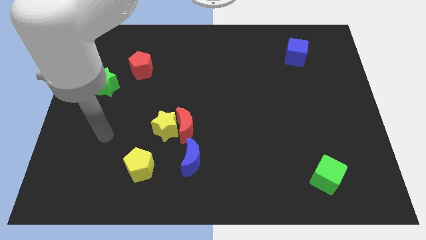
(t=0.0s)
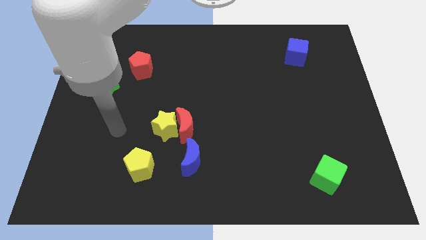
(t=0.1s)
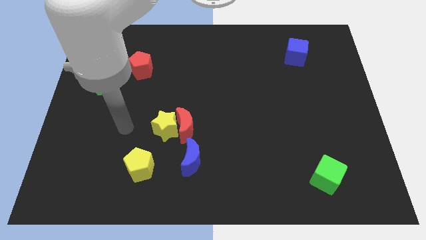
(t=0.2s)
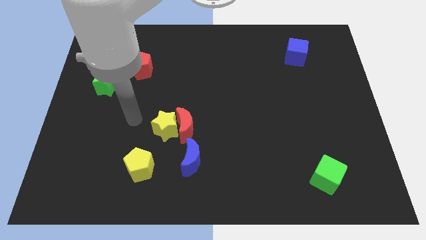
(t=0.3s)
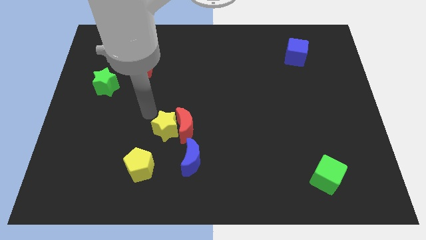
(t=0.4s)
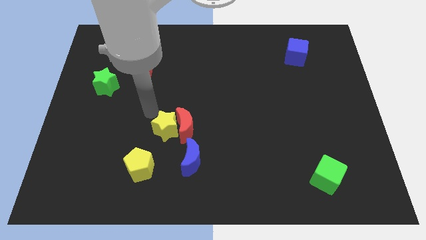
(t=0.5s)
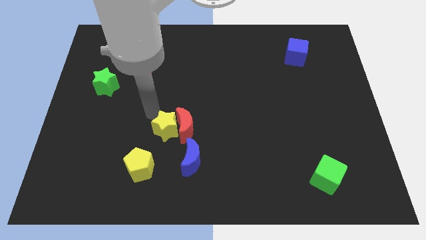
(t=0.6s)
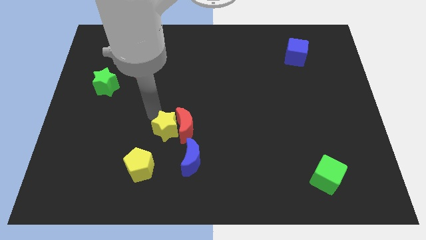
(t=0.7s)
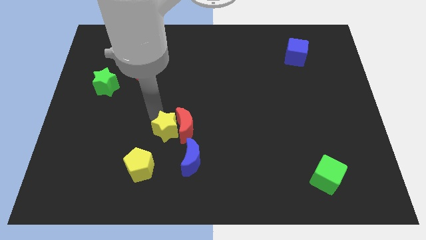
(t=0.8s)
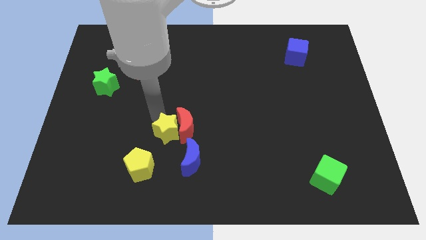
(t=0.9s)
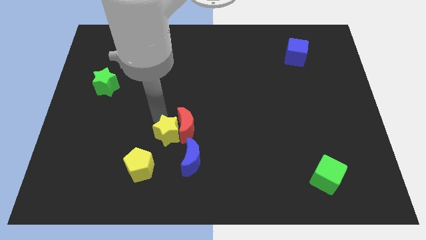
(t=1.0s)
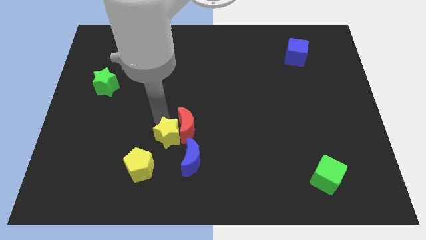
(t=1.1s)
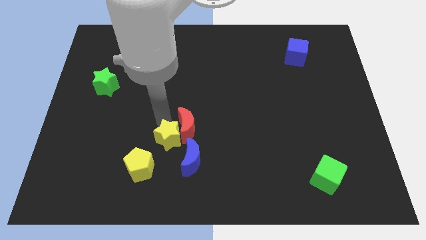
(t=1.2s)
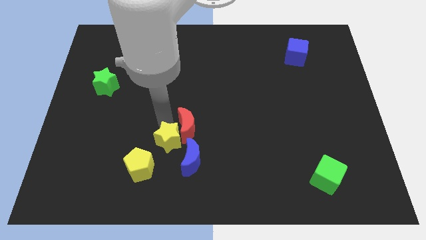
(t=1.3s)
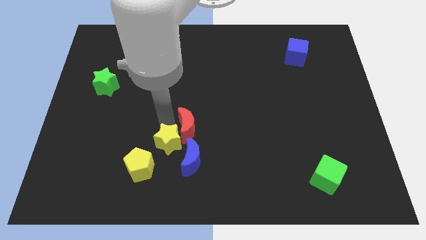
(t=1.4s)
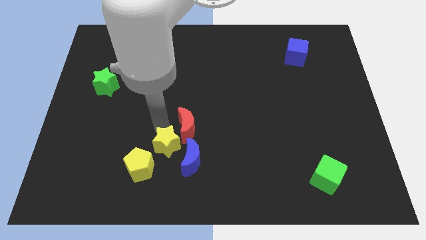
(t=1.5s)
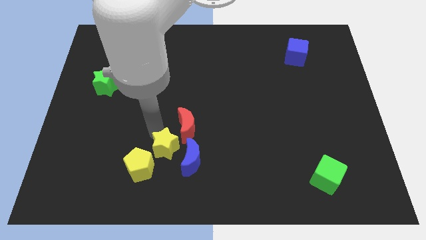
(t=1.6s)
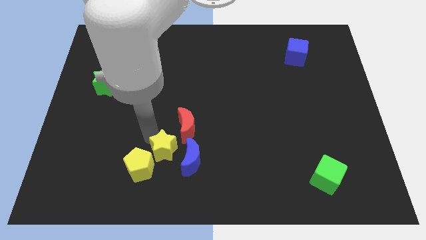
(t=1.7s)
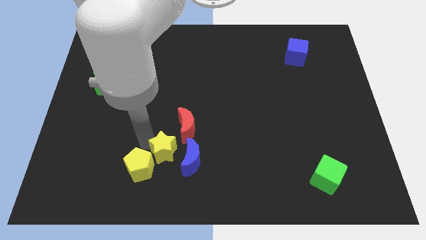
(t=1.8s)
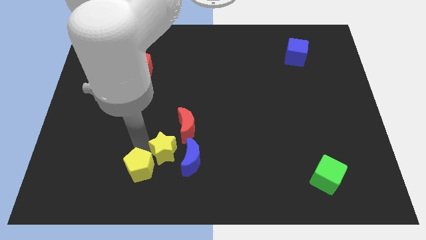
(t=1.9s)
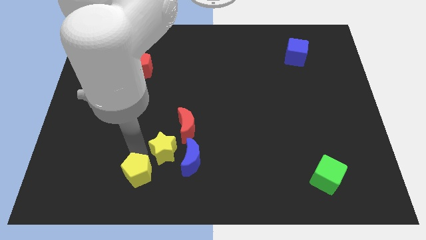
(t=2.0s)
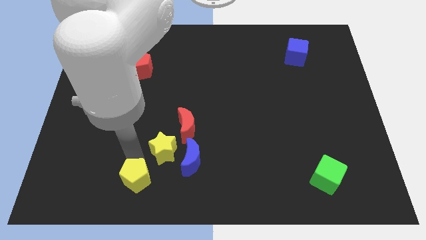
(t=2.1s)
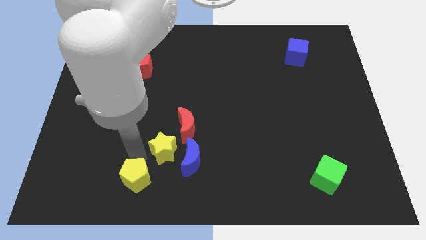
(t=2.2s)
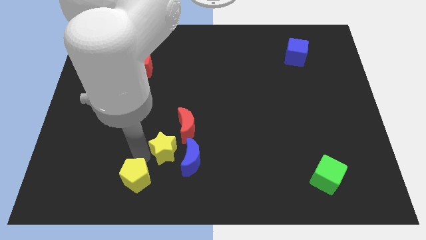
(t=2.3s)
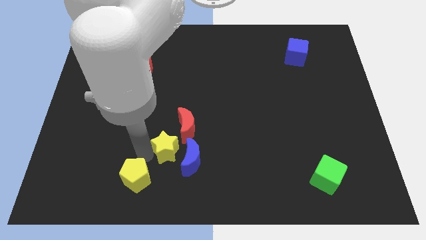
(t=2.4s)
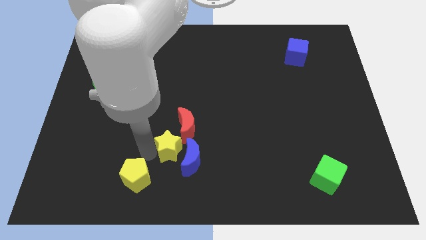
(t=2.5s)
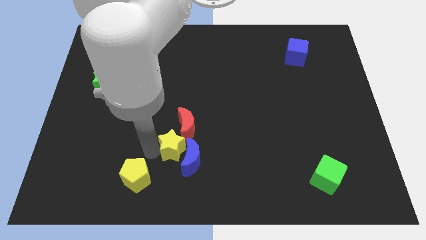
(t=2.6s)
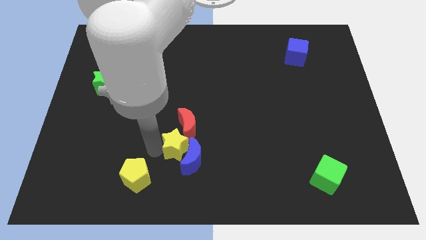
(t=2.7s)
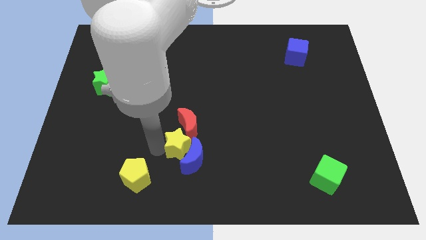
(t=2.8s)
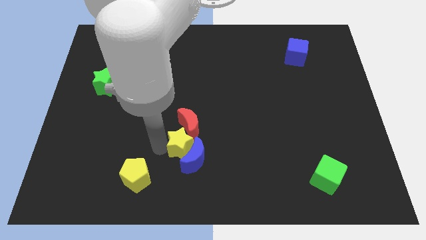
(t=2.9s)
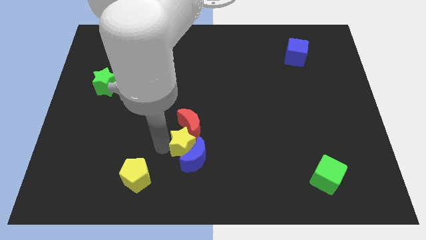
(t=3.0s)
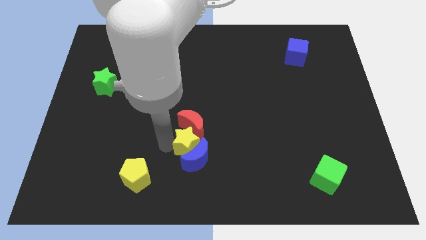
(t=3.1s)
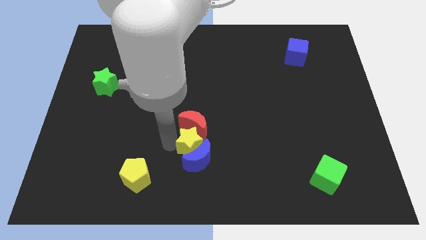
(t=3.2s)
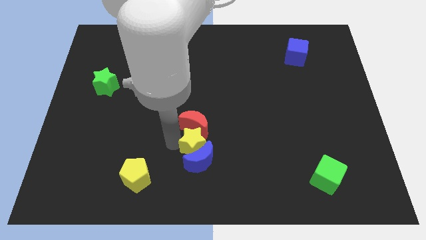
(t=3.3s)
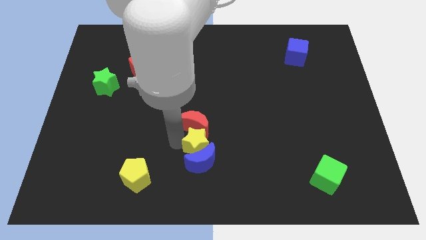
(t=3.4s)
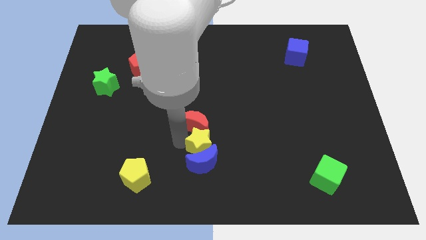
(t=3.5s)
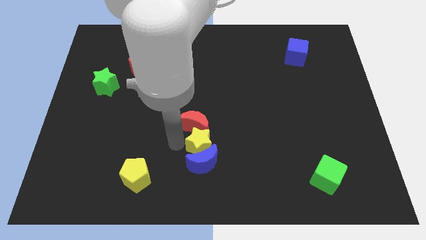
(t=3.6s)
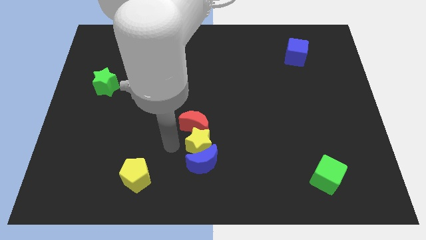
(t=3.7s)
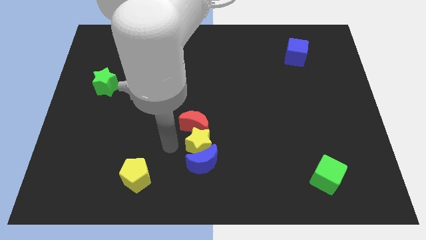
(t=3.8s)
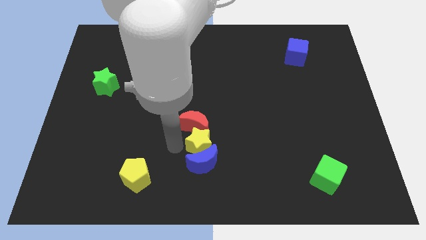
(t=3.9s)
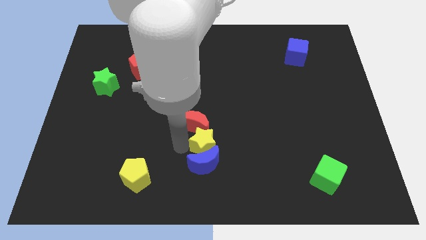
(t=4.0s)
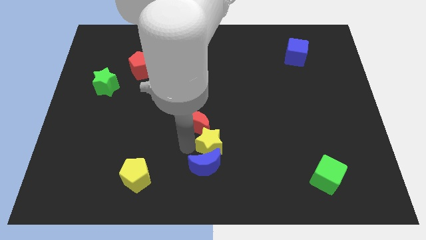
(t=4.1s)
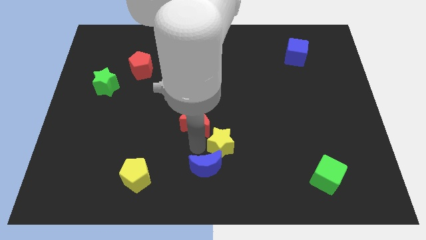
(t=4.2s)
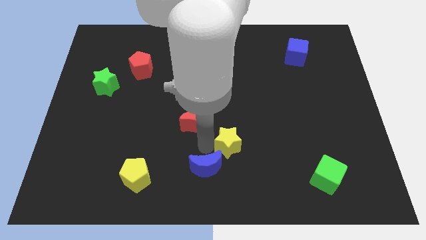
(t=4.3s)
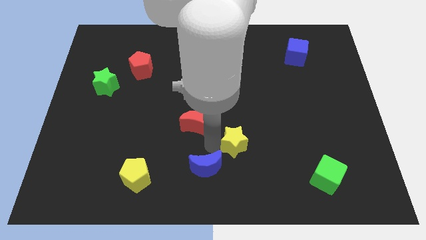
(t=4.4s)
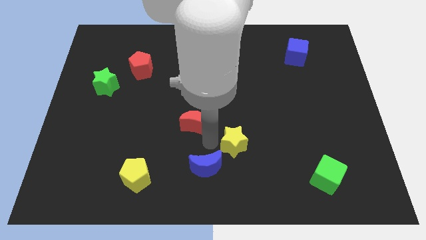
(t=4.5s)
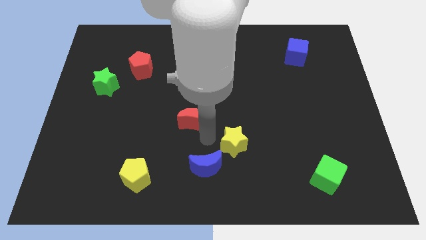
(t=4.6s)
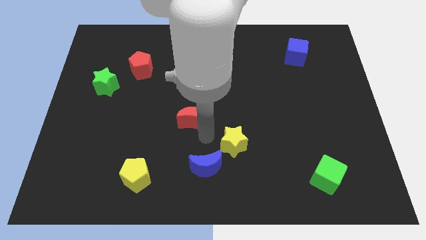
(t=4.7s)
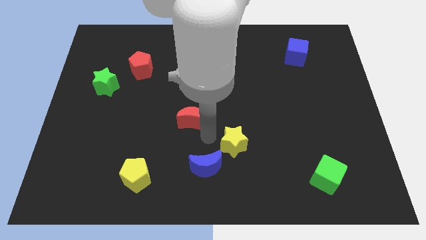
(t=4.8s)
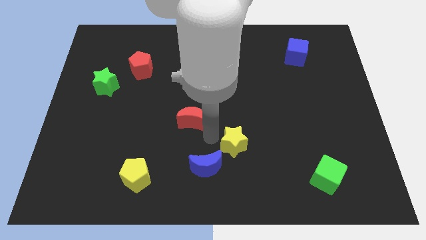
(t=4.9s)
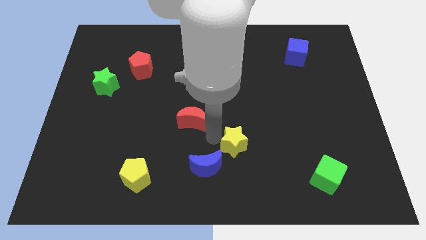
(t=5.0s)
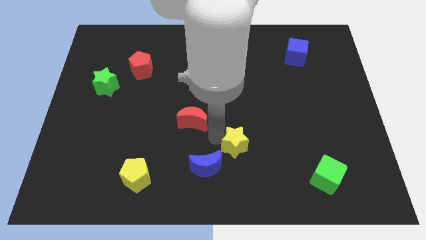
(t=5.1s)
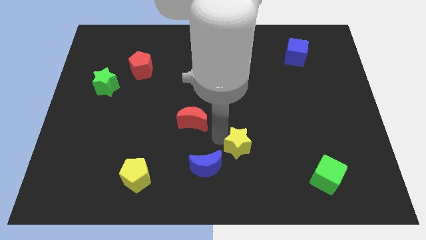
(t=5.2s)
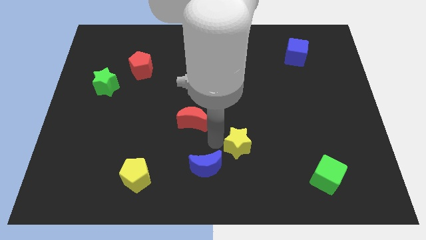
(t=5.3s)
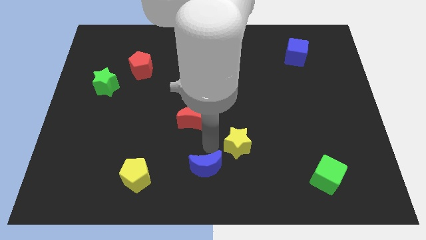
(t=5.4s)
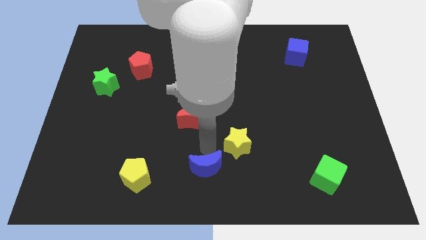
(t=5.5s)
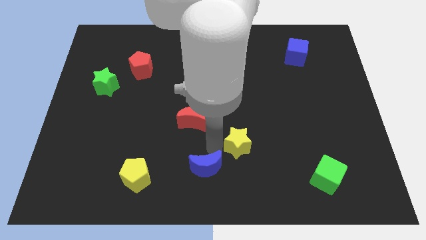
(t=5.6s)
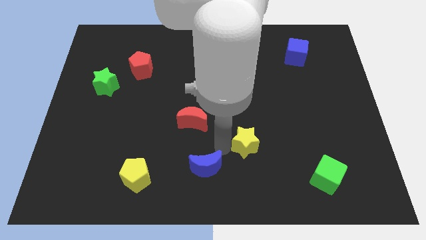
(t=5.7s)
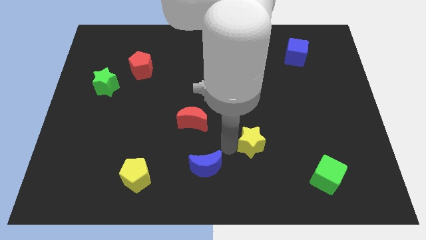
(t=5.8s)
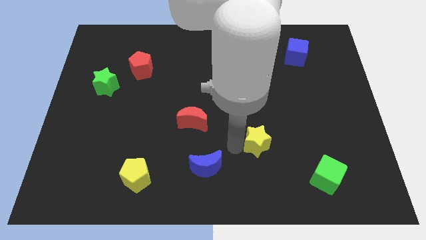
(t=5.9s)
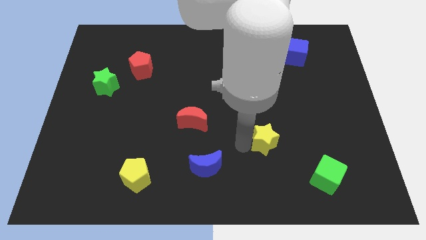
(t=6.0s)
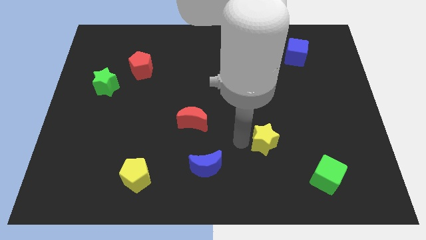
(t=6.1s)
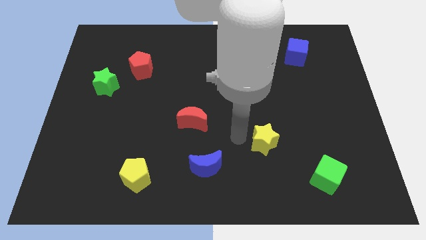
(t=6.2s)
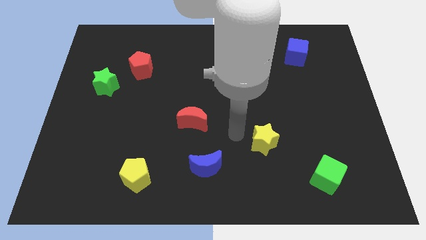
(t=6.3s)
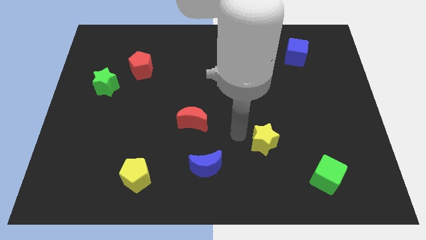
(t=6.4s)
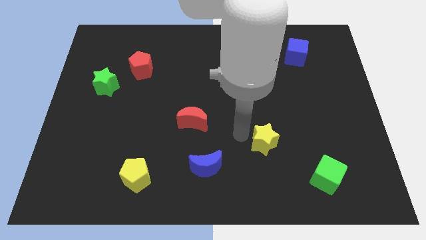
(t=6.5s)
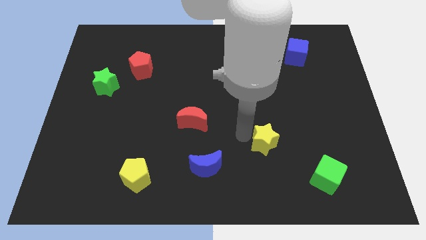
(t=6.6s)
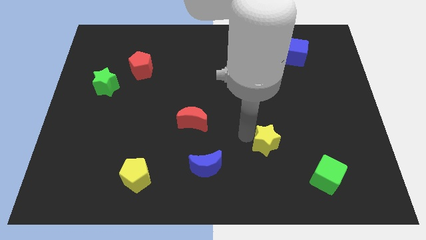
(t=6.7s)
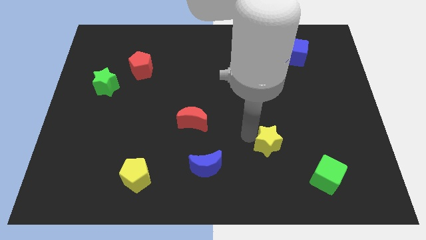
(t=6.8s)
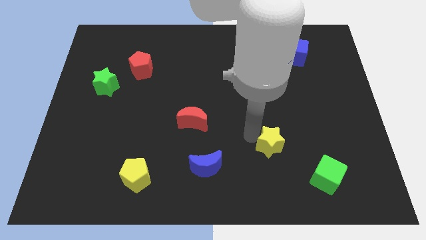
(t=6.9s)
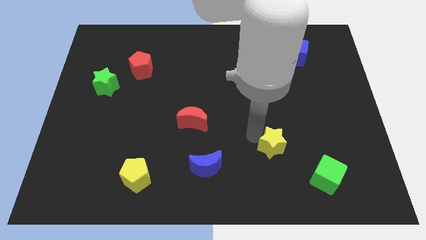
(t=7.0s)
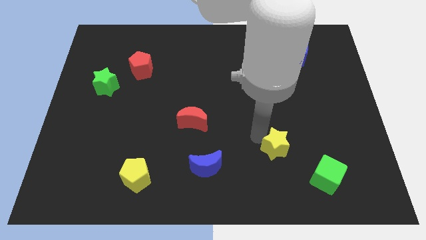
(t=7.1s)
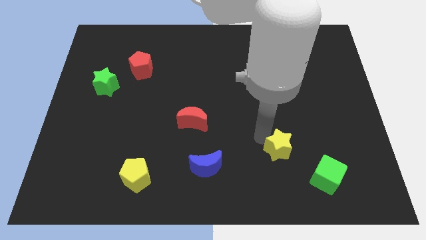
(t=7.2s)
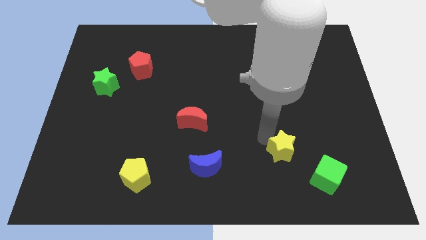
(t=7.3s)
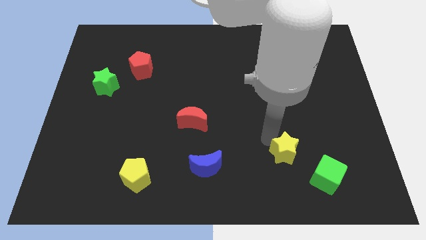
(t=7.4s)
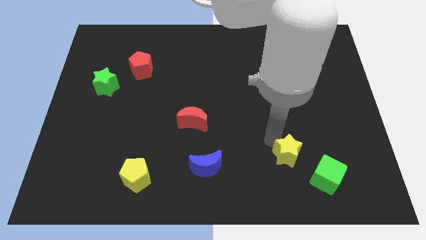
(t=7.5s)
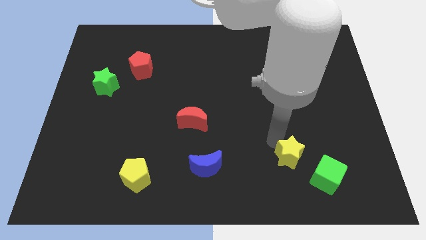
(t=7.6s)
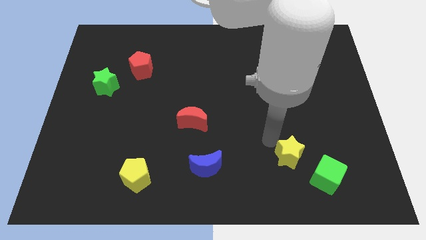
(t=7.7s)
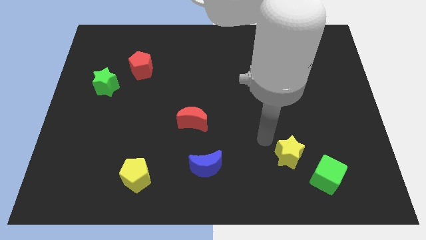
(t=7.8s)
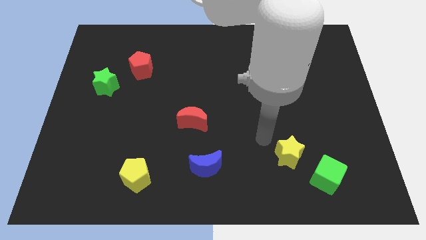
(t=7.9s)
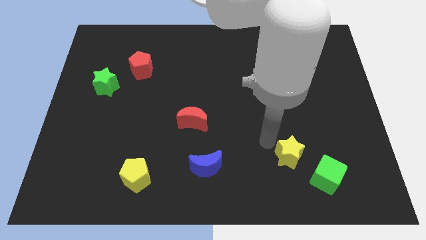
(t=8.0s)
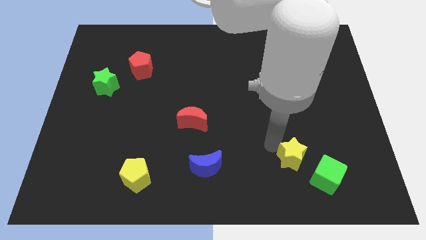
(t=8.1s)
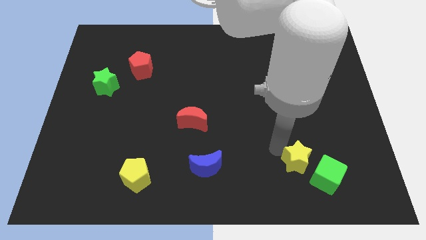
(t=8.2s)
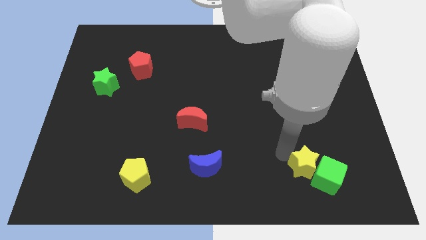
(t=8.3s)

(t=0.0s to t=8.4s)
move the yellow star close to the green cube

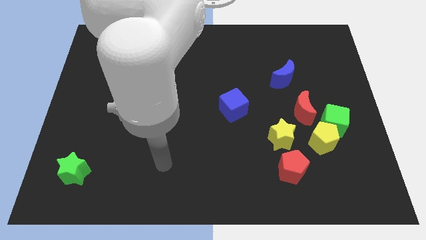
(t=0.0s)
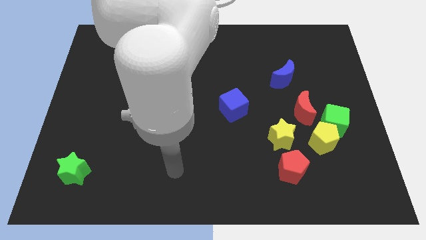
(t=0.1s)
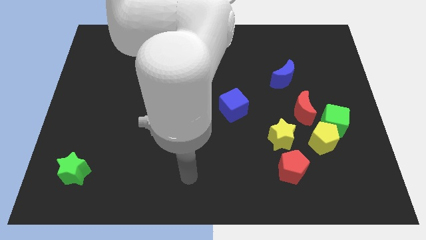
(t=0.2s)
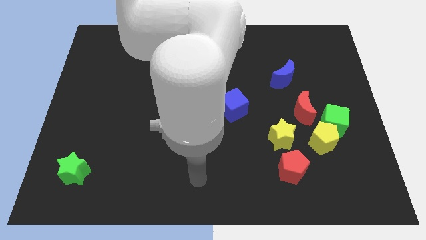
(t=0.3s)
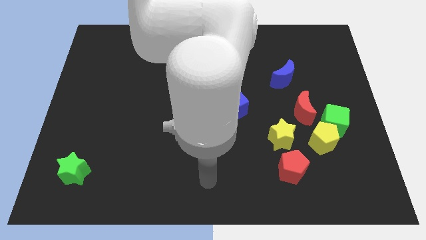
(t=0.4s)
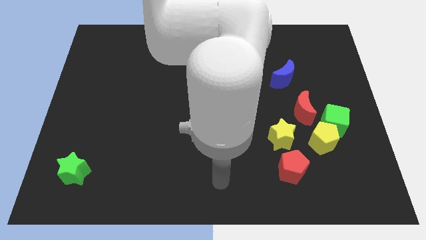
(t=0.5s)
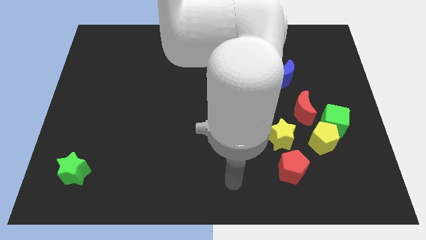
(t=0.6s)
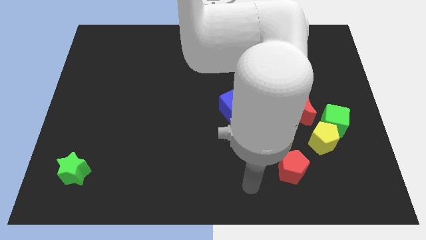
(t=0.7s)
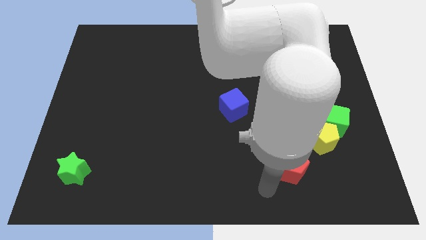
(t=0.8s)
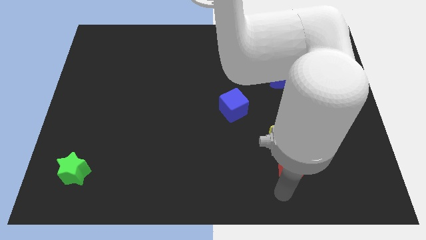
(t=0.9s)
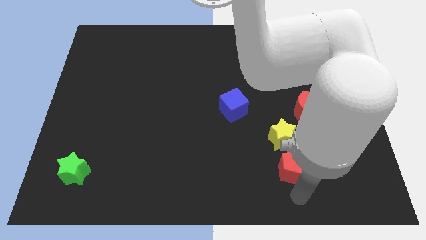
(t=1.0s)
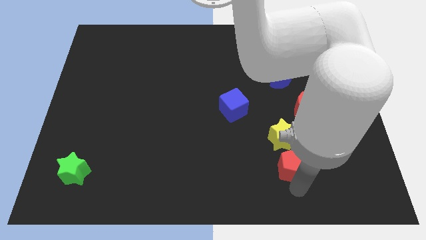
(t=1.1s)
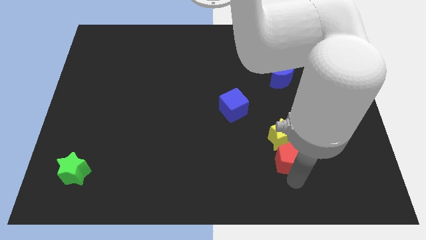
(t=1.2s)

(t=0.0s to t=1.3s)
put the red pentagon next to the yellow star
